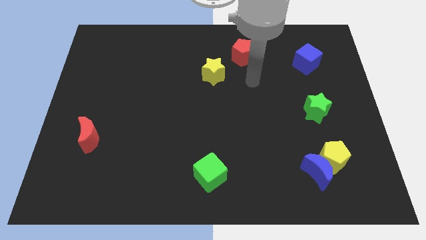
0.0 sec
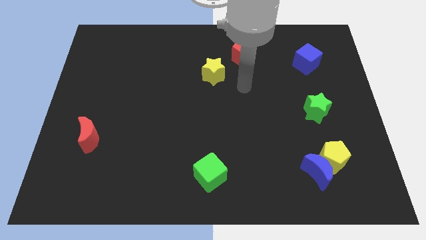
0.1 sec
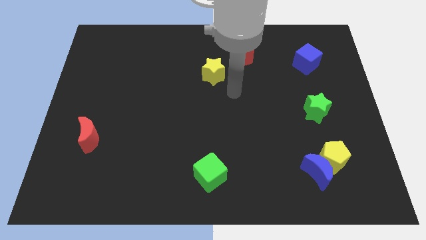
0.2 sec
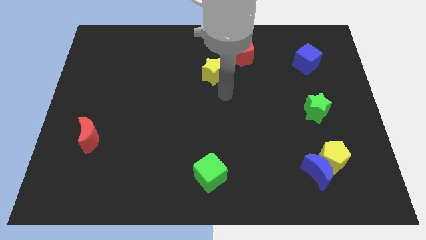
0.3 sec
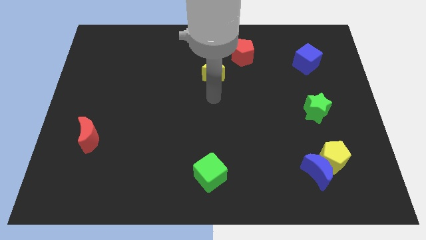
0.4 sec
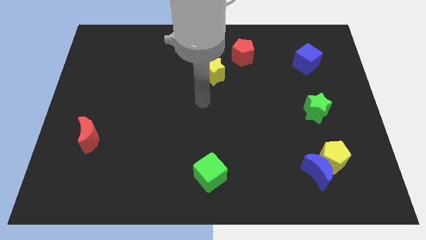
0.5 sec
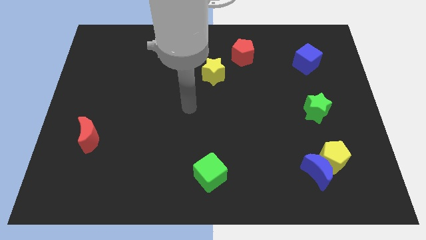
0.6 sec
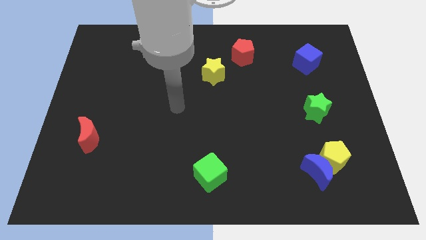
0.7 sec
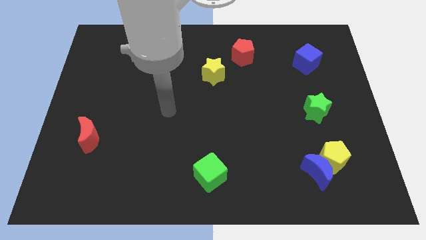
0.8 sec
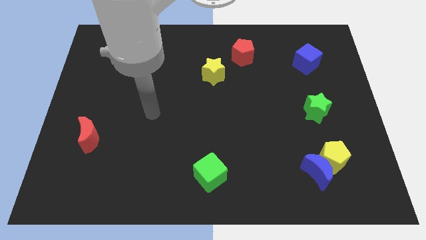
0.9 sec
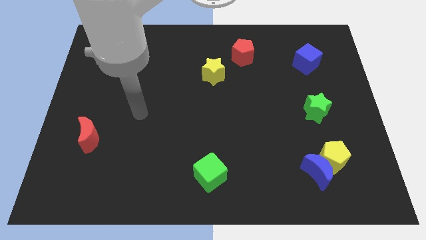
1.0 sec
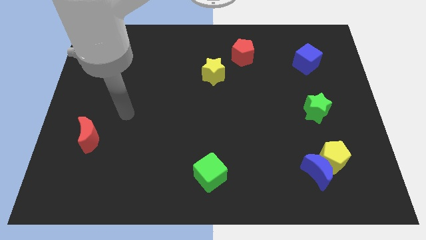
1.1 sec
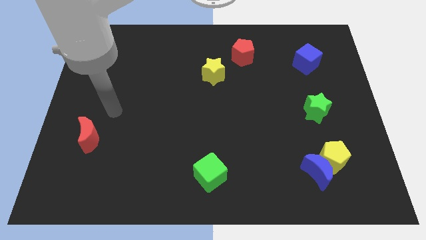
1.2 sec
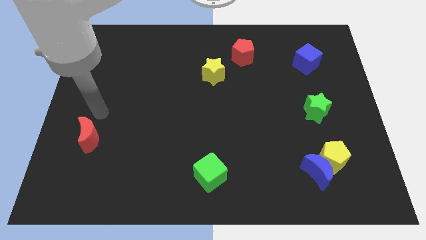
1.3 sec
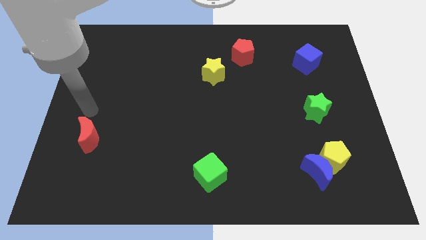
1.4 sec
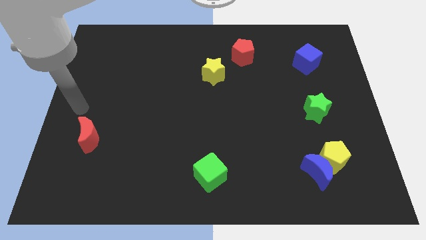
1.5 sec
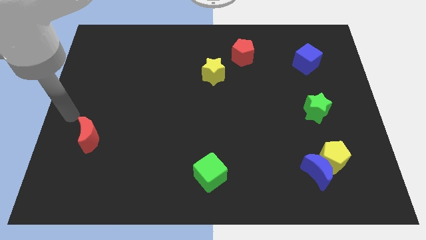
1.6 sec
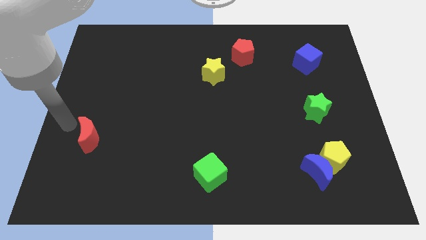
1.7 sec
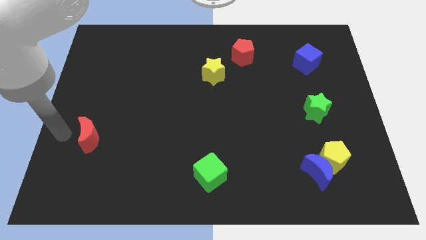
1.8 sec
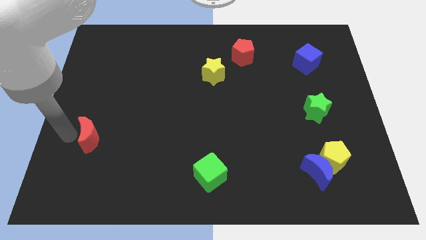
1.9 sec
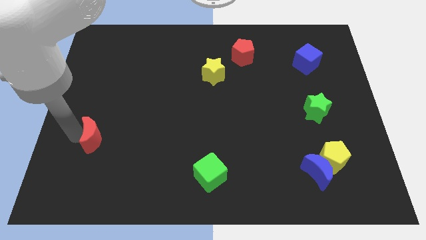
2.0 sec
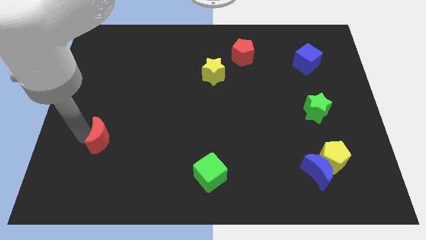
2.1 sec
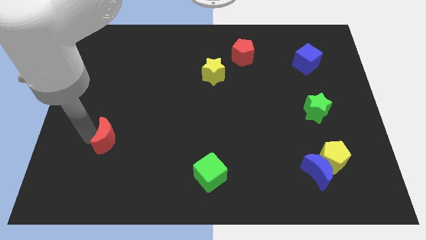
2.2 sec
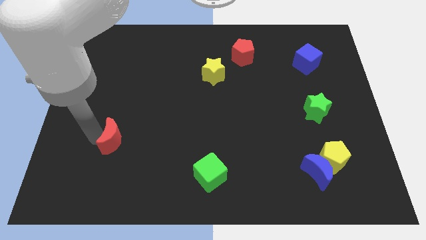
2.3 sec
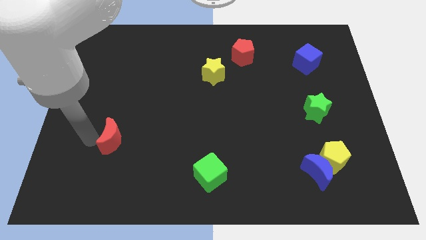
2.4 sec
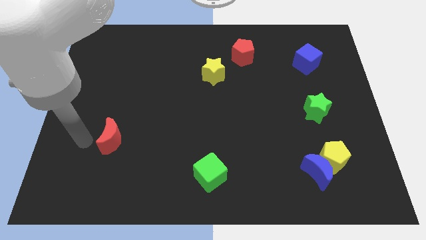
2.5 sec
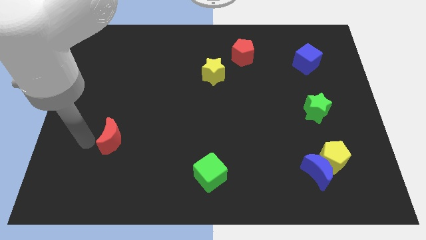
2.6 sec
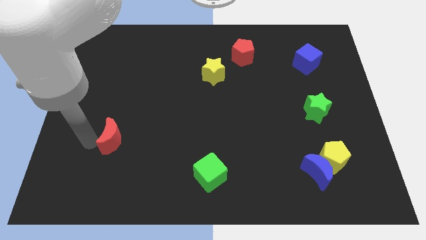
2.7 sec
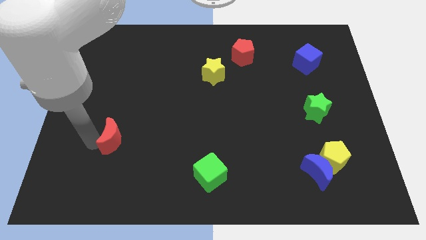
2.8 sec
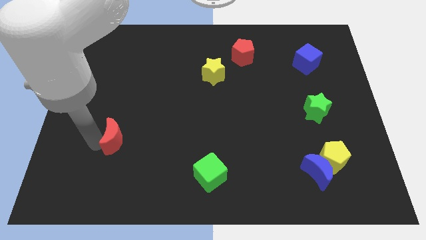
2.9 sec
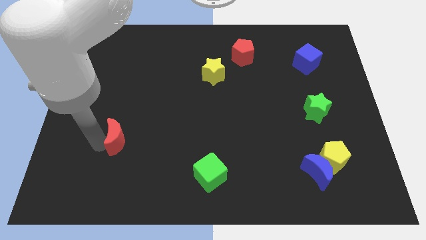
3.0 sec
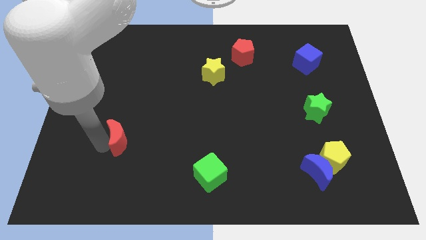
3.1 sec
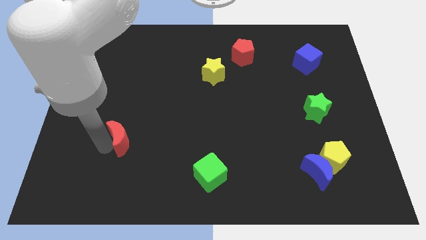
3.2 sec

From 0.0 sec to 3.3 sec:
slightly push the red moon right

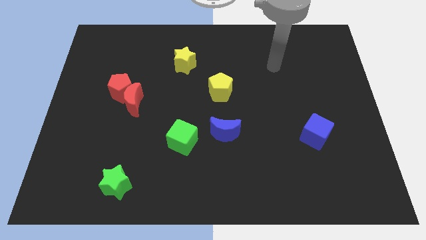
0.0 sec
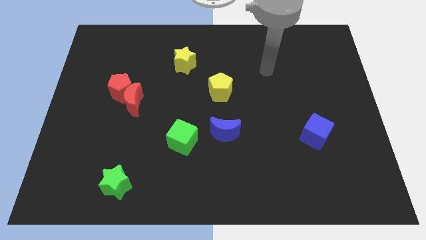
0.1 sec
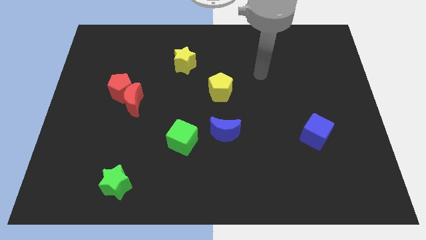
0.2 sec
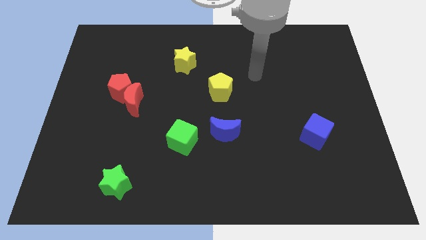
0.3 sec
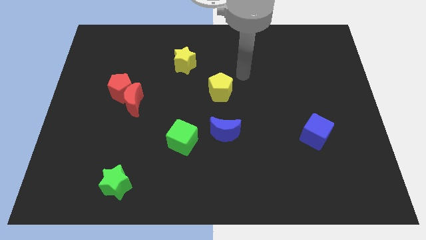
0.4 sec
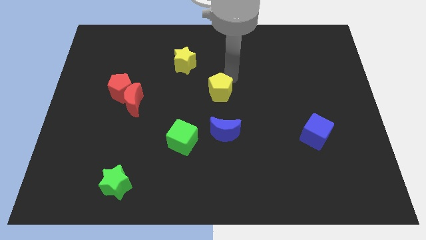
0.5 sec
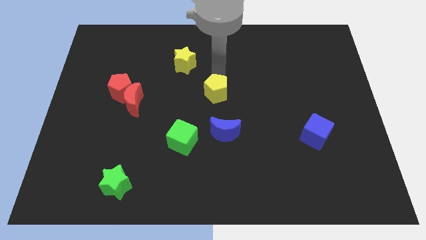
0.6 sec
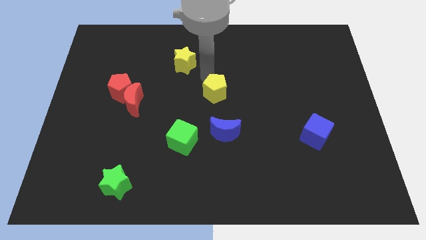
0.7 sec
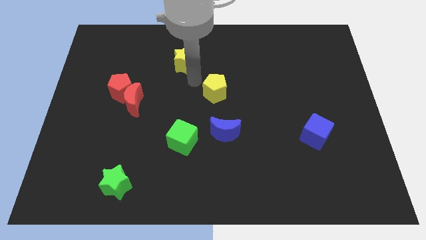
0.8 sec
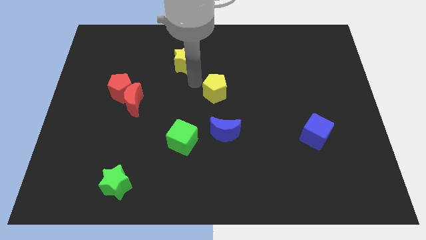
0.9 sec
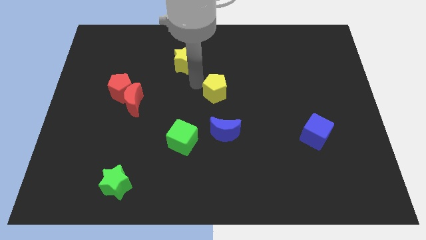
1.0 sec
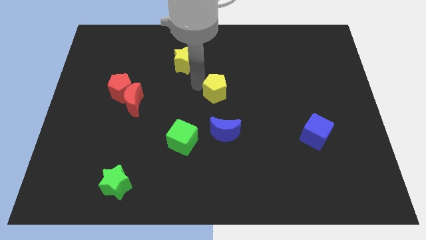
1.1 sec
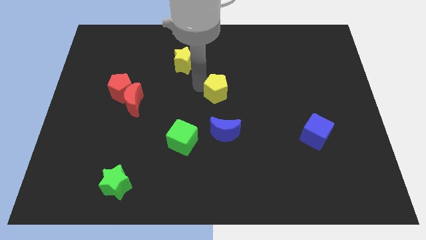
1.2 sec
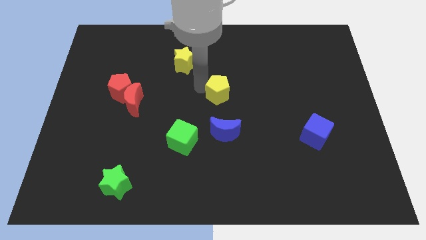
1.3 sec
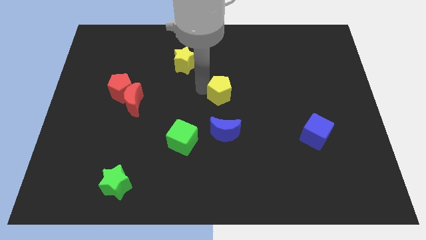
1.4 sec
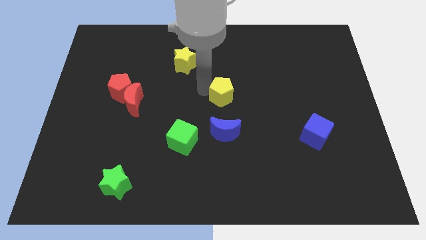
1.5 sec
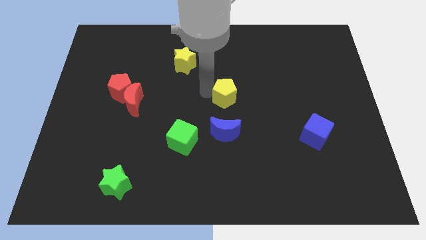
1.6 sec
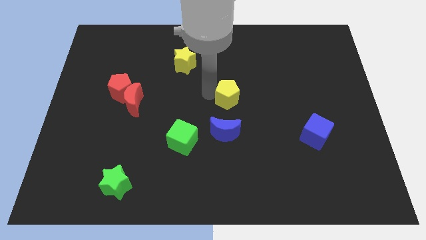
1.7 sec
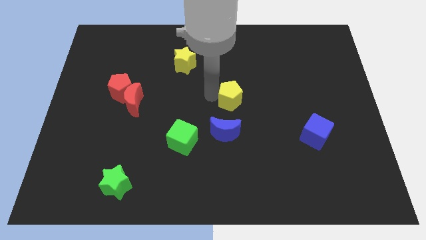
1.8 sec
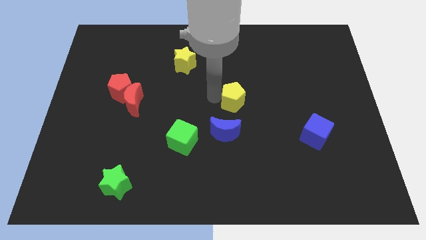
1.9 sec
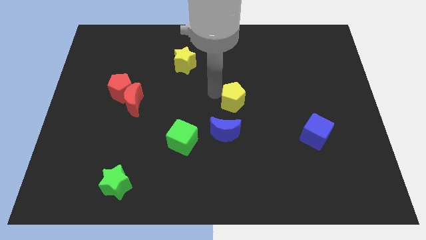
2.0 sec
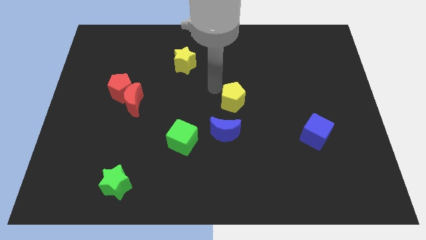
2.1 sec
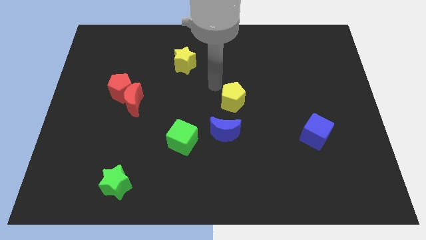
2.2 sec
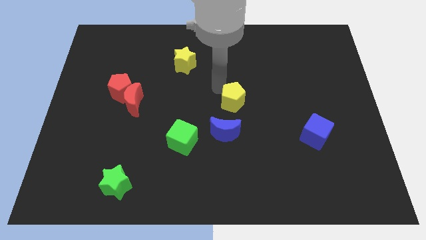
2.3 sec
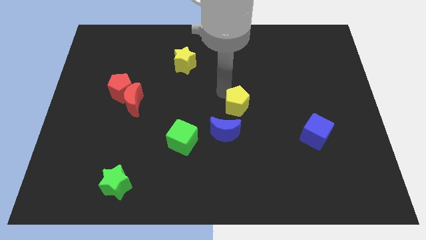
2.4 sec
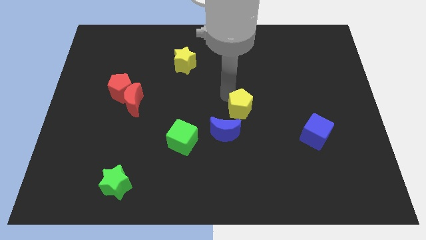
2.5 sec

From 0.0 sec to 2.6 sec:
move the yellow pentagon a little bit down and right

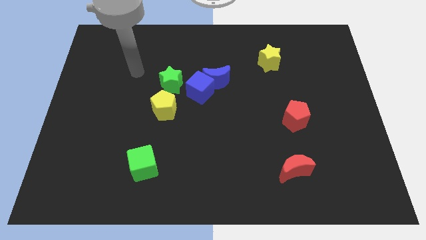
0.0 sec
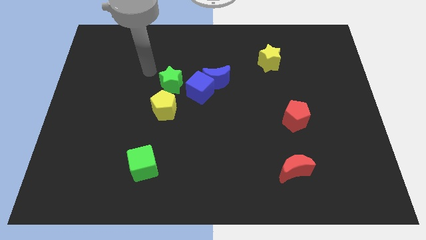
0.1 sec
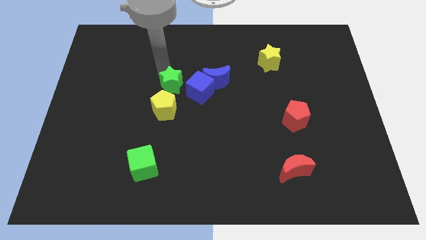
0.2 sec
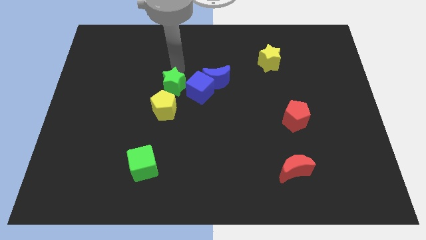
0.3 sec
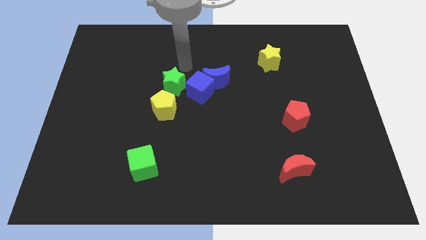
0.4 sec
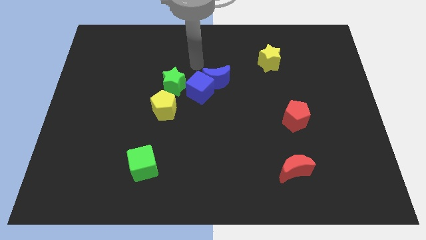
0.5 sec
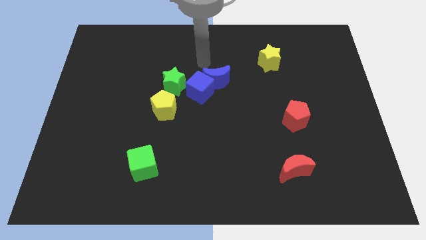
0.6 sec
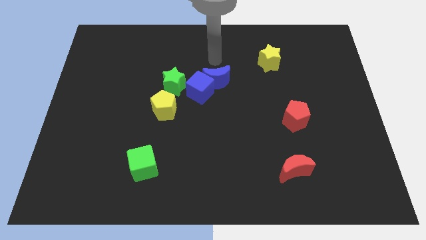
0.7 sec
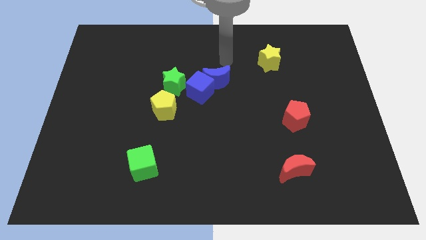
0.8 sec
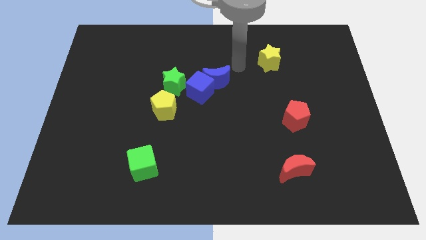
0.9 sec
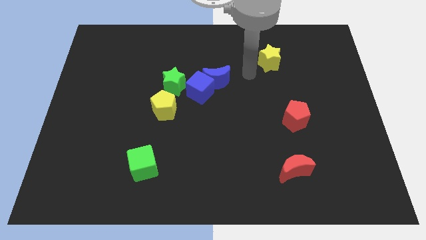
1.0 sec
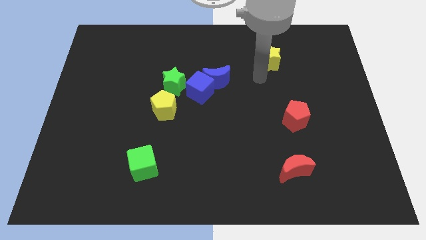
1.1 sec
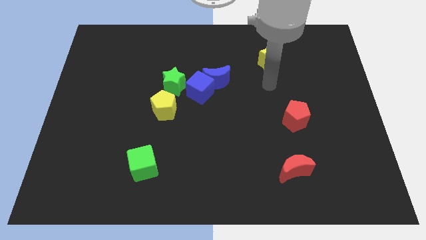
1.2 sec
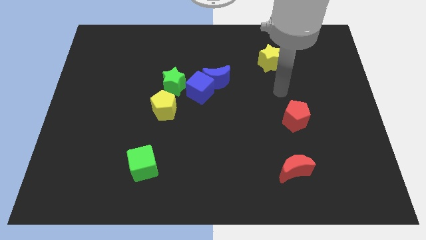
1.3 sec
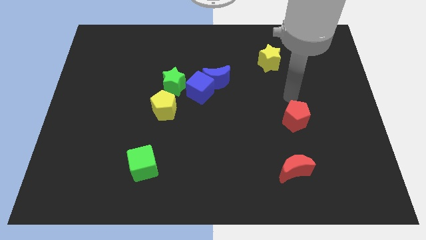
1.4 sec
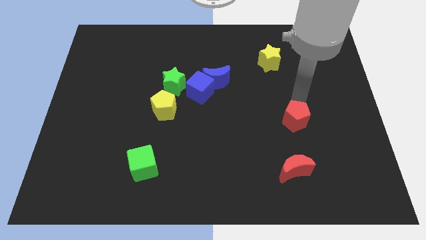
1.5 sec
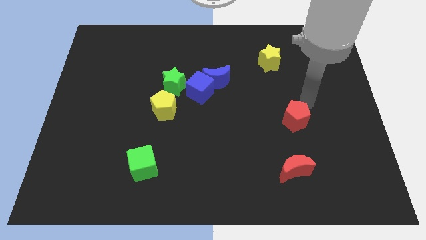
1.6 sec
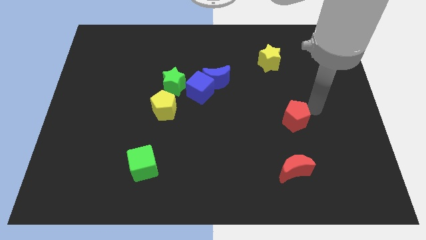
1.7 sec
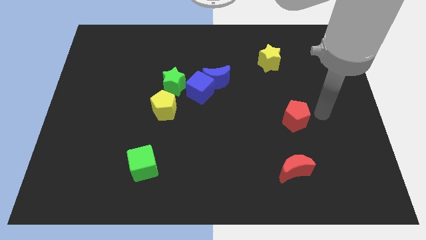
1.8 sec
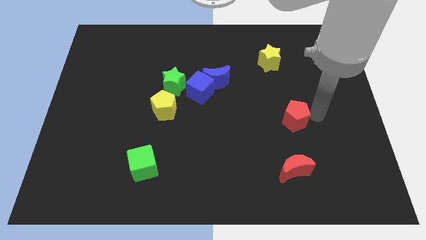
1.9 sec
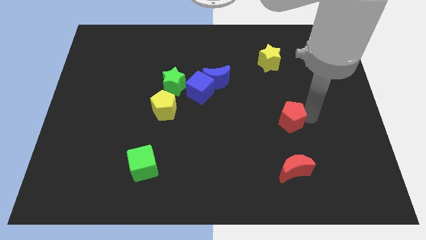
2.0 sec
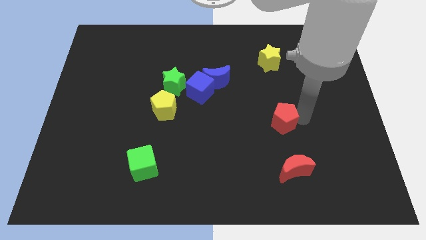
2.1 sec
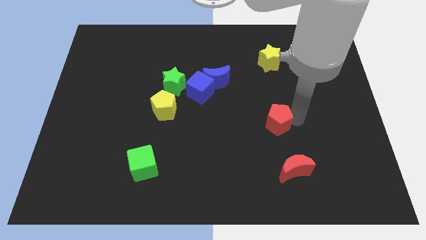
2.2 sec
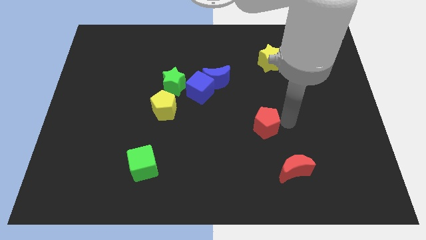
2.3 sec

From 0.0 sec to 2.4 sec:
slide the red pentagon left a little bit

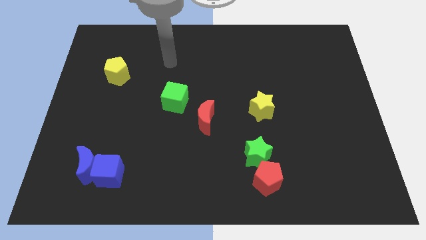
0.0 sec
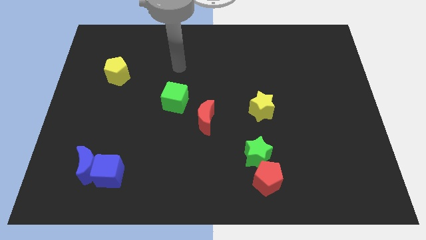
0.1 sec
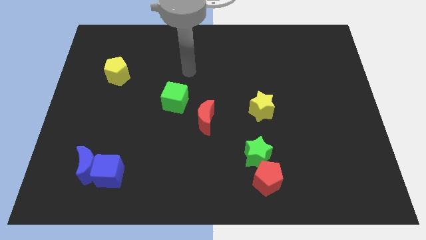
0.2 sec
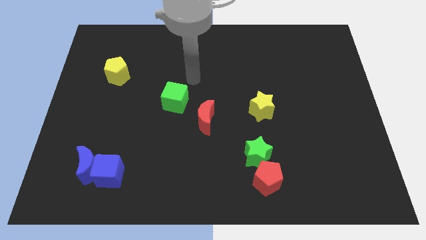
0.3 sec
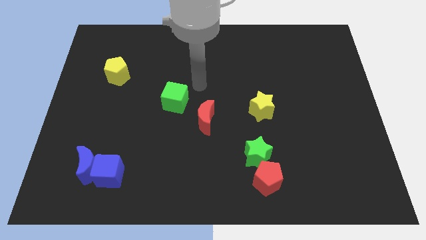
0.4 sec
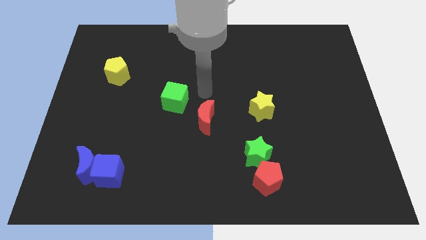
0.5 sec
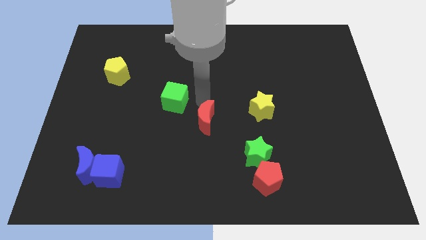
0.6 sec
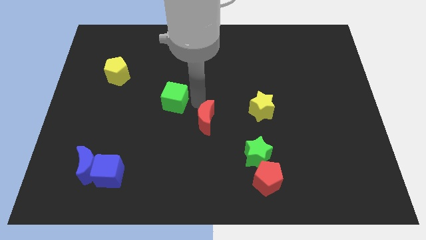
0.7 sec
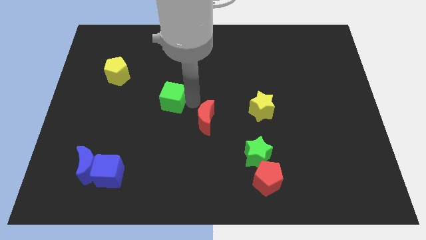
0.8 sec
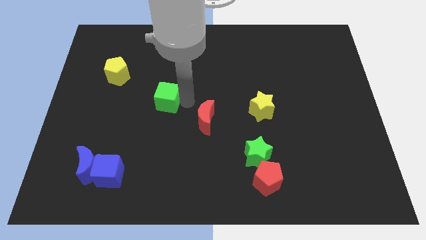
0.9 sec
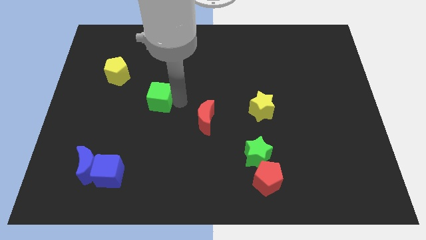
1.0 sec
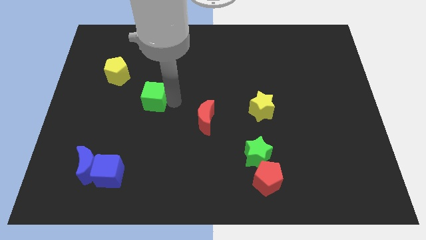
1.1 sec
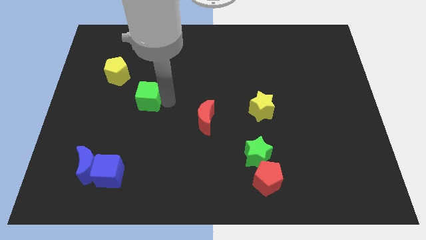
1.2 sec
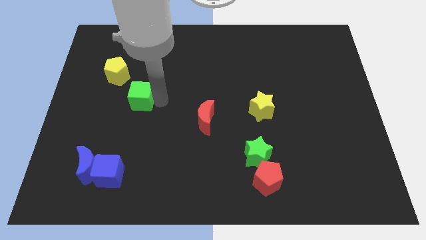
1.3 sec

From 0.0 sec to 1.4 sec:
slightly push the green cube to the left
